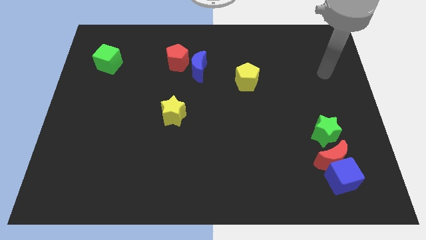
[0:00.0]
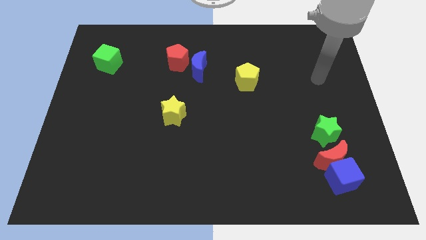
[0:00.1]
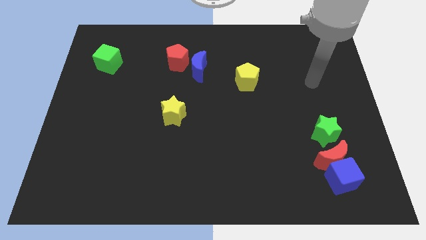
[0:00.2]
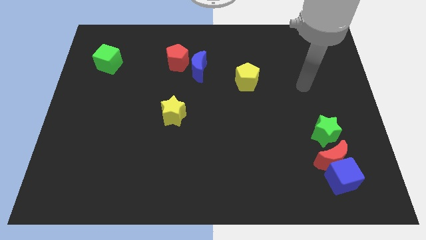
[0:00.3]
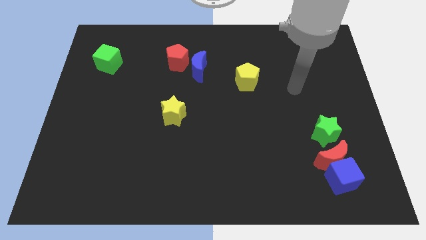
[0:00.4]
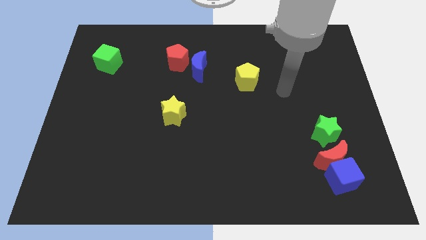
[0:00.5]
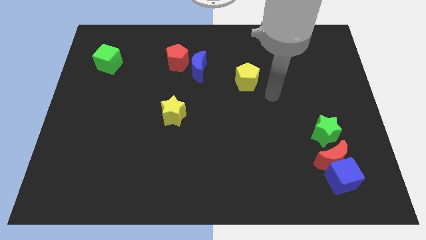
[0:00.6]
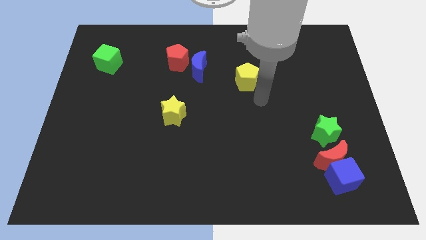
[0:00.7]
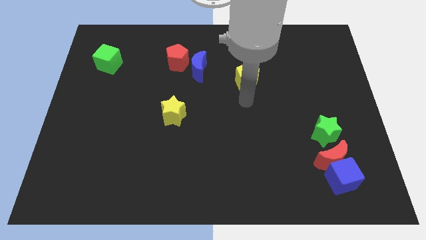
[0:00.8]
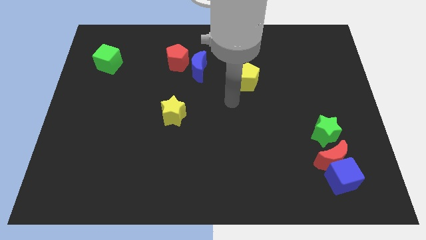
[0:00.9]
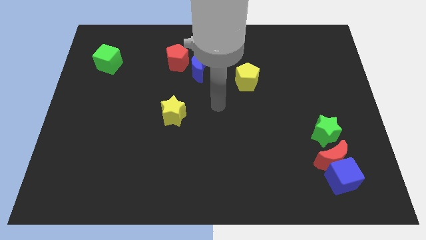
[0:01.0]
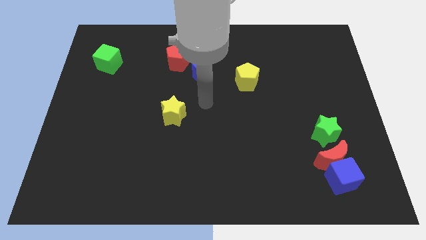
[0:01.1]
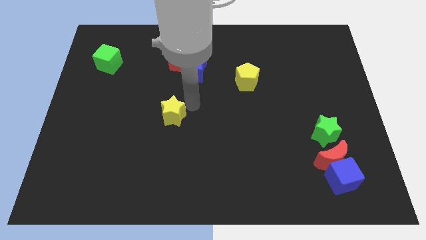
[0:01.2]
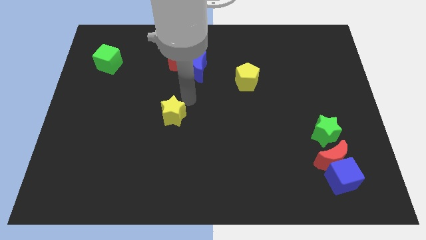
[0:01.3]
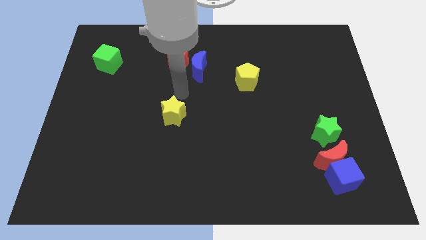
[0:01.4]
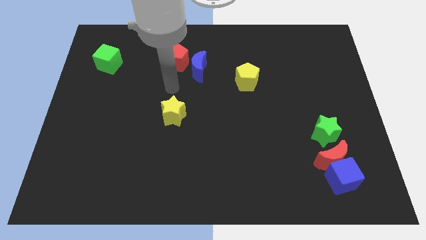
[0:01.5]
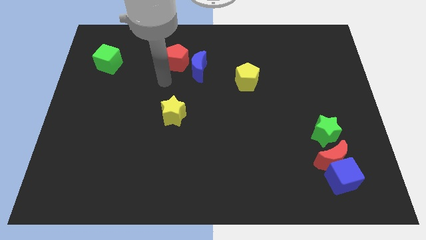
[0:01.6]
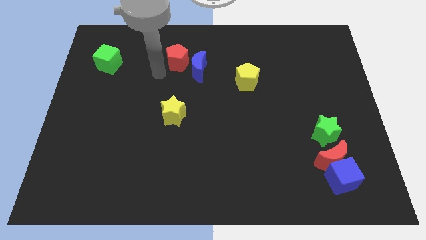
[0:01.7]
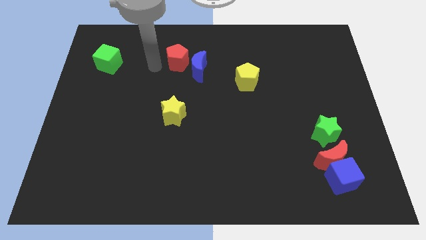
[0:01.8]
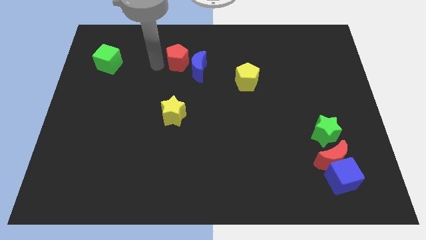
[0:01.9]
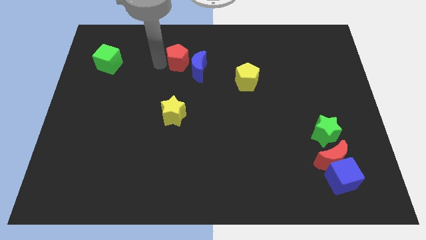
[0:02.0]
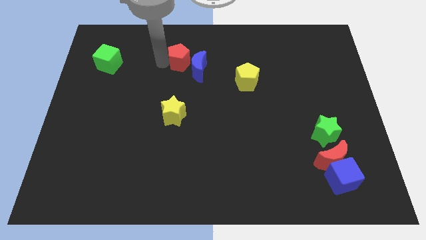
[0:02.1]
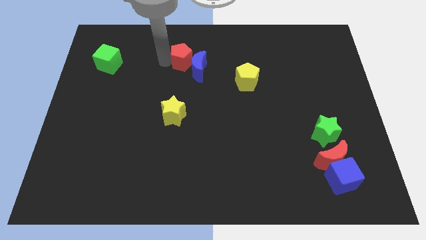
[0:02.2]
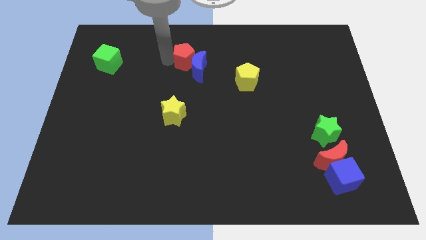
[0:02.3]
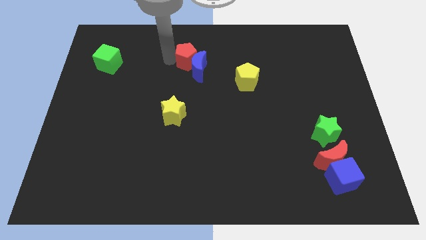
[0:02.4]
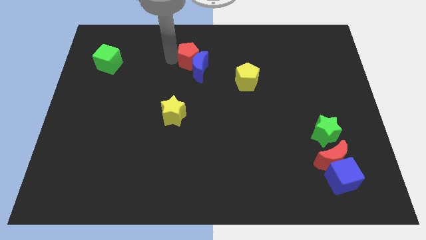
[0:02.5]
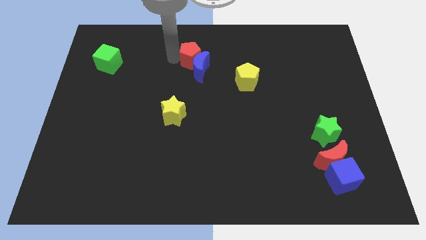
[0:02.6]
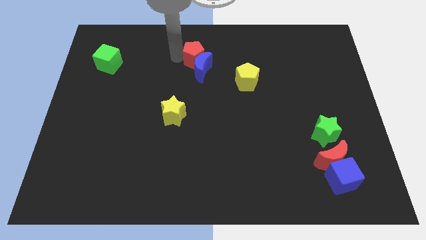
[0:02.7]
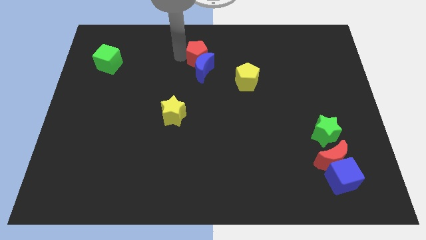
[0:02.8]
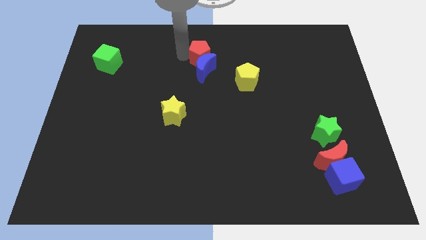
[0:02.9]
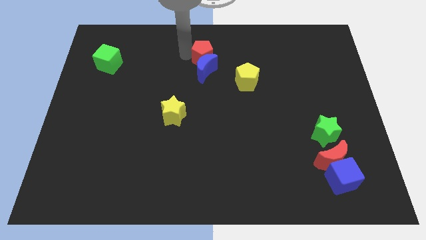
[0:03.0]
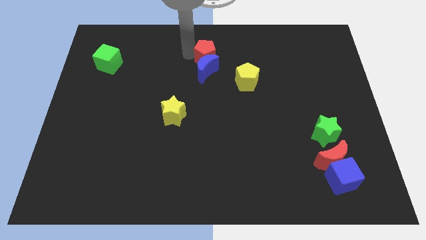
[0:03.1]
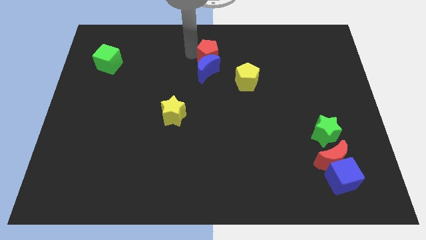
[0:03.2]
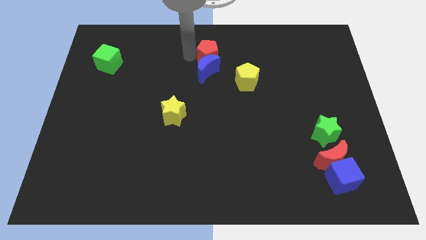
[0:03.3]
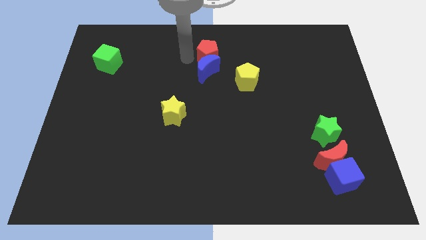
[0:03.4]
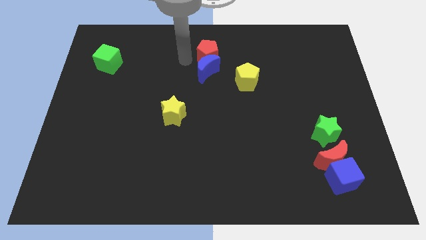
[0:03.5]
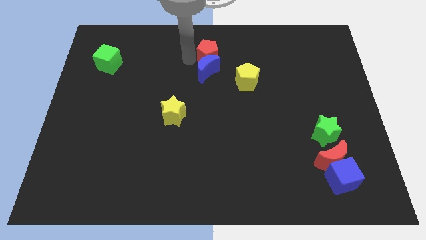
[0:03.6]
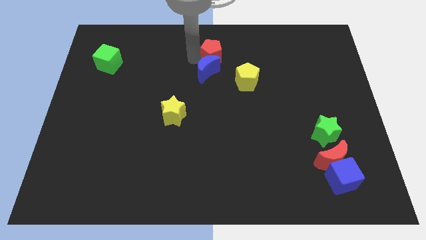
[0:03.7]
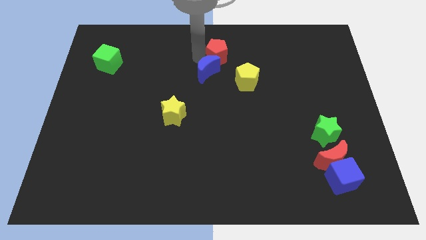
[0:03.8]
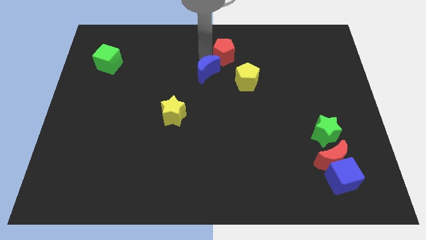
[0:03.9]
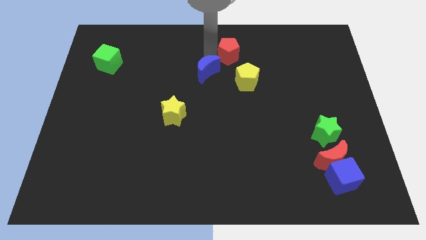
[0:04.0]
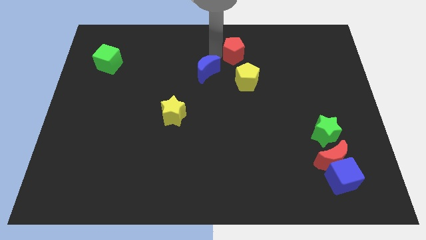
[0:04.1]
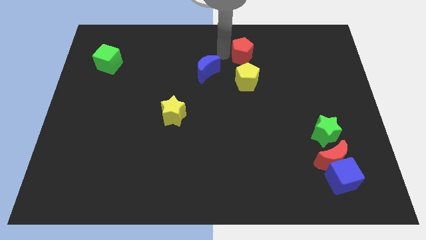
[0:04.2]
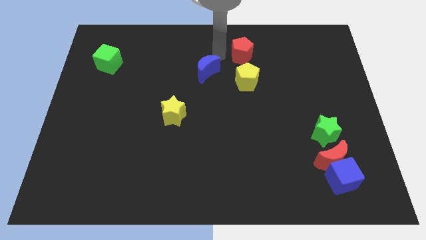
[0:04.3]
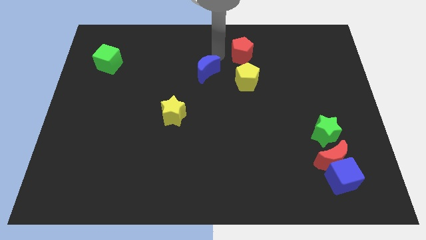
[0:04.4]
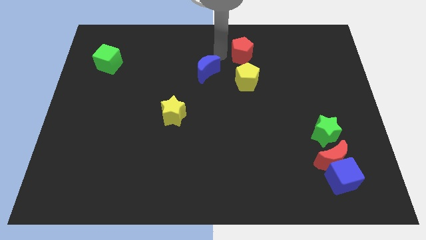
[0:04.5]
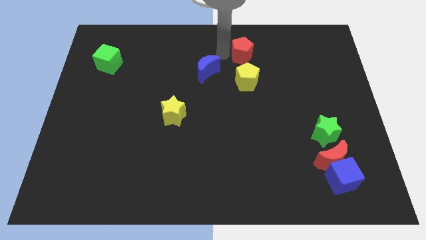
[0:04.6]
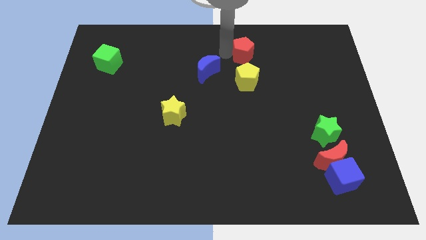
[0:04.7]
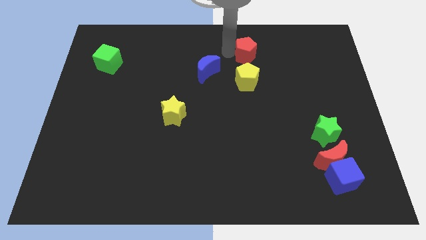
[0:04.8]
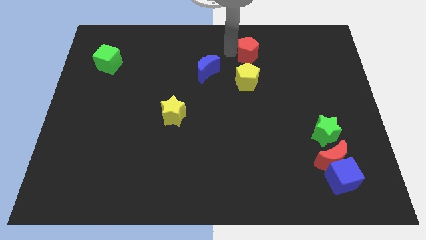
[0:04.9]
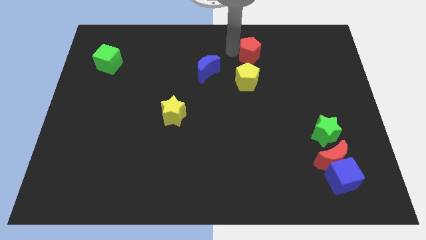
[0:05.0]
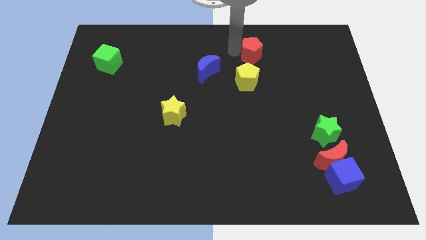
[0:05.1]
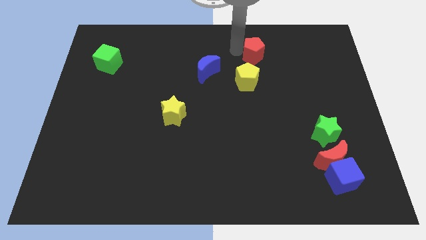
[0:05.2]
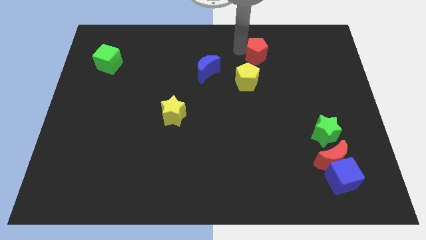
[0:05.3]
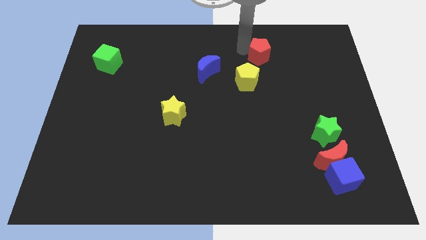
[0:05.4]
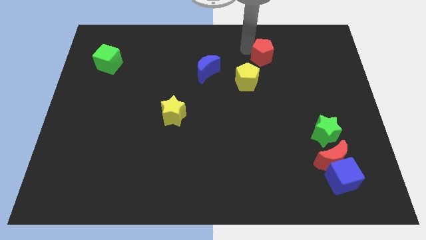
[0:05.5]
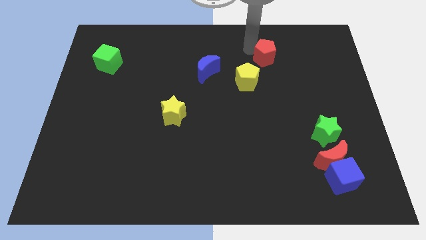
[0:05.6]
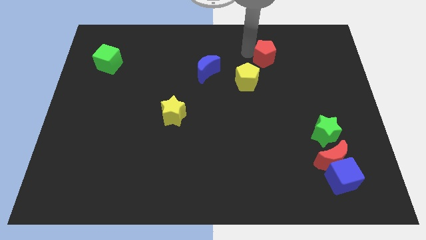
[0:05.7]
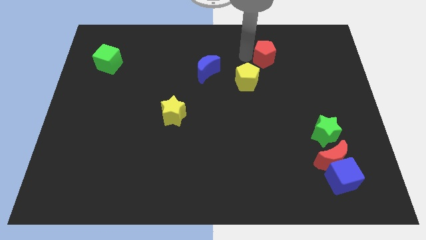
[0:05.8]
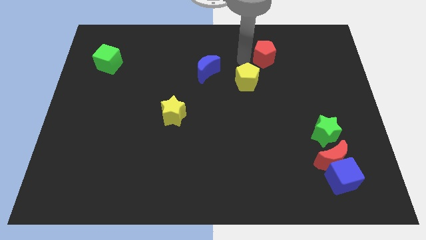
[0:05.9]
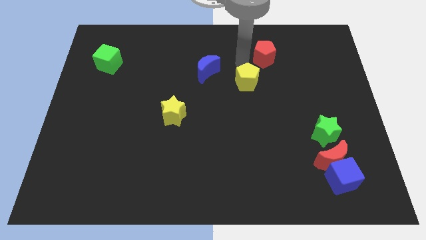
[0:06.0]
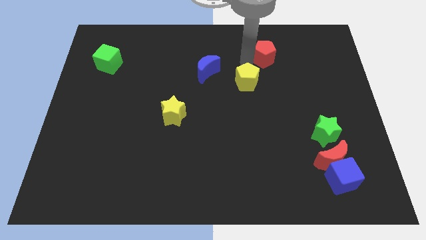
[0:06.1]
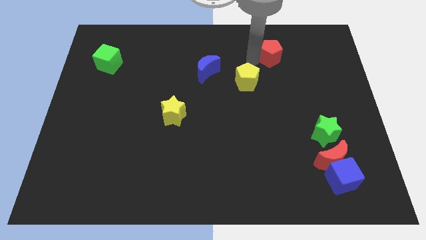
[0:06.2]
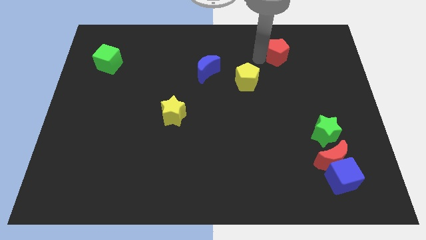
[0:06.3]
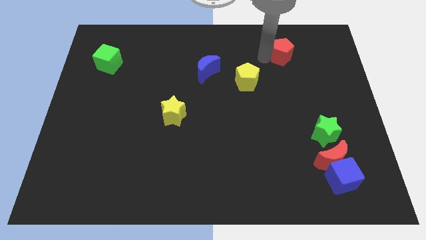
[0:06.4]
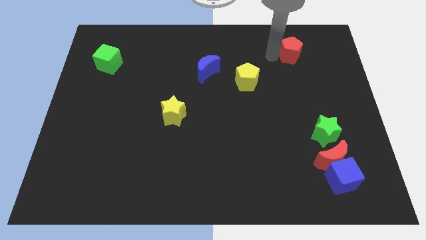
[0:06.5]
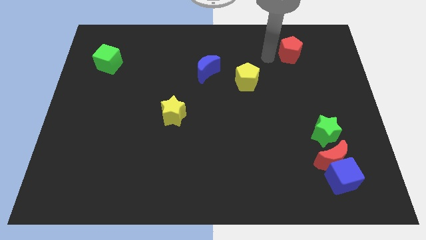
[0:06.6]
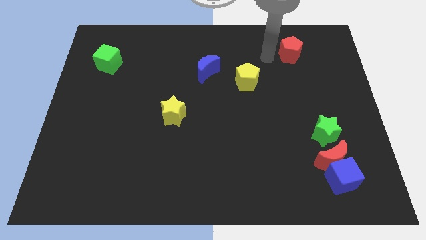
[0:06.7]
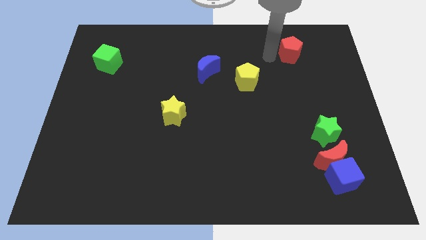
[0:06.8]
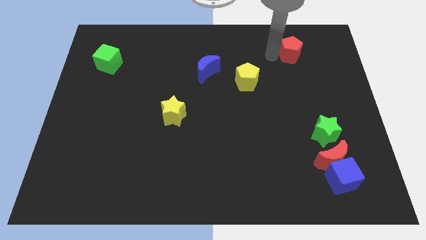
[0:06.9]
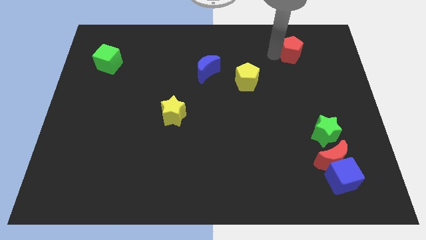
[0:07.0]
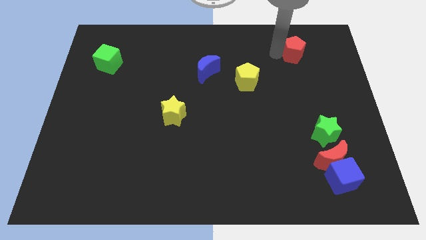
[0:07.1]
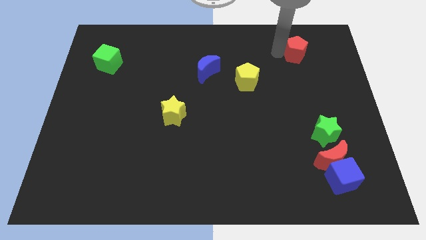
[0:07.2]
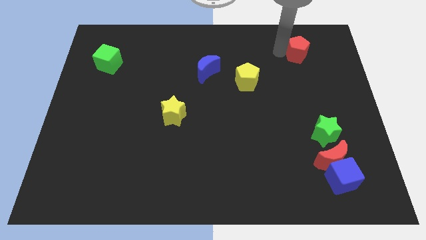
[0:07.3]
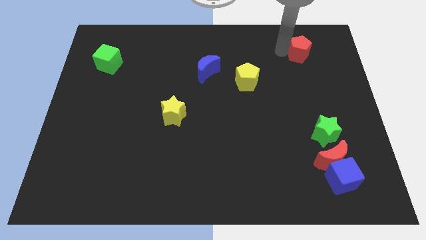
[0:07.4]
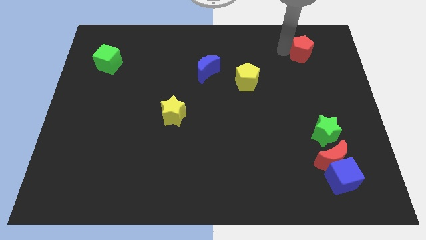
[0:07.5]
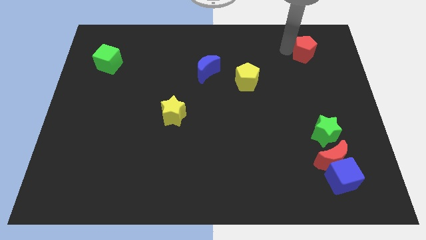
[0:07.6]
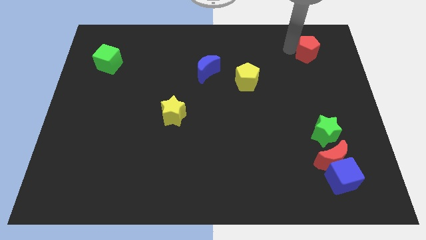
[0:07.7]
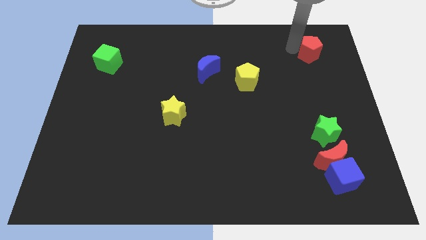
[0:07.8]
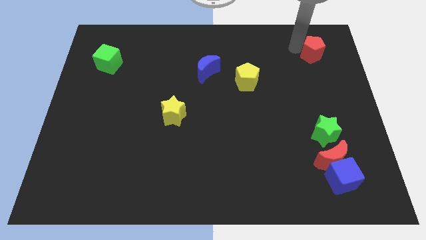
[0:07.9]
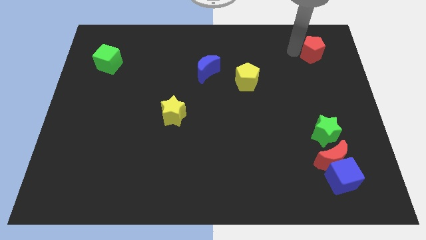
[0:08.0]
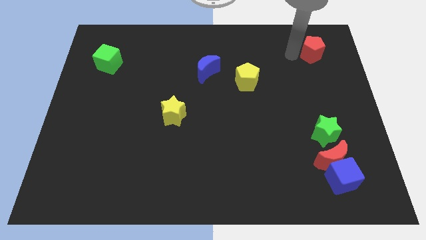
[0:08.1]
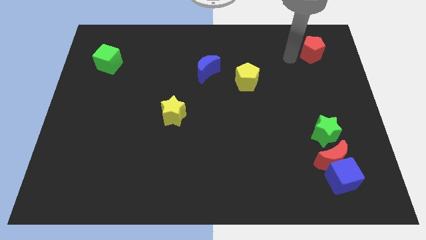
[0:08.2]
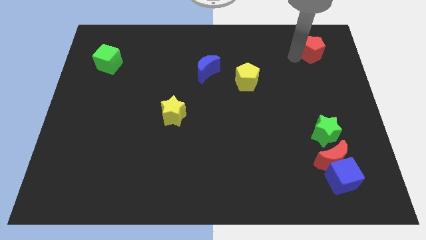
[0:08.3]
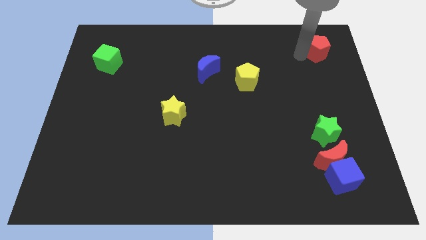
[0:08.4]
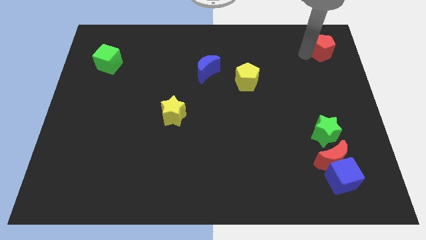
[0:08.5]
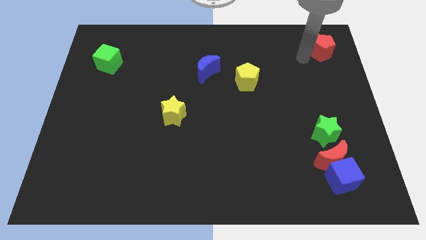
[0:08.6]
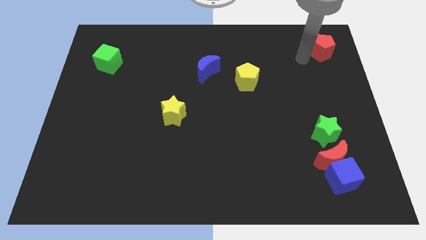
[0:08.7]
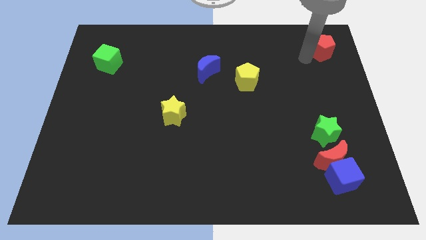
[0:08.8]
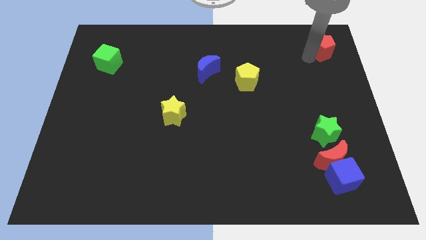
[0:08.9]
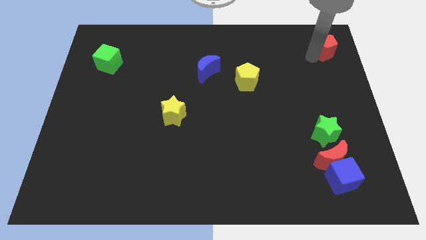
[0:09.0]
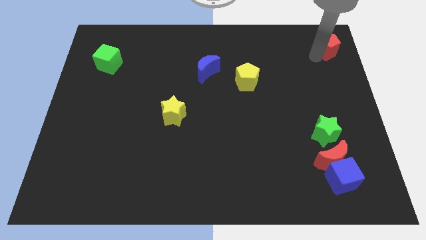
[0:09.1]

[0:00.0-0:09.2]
slide the red pentagon to the top right
